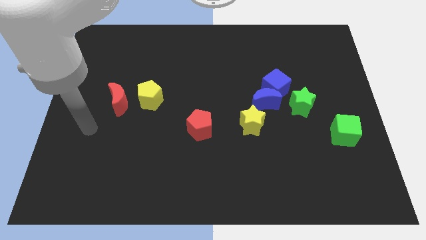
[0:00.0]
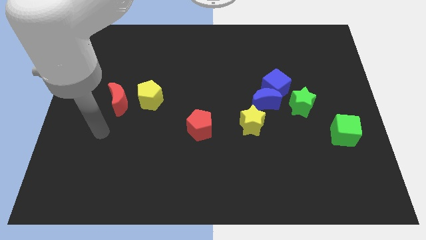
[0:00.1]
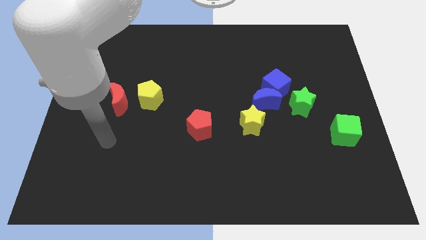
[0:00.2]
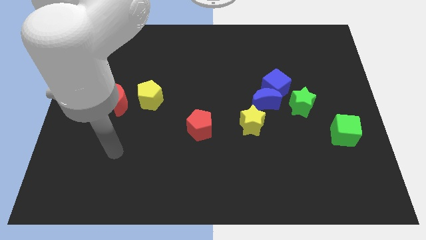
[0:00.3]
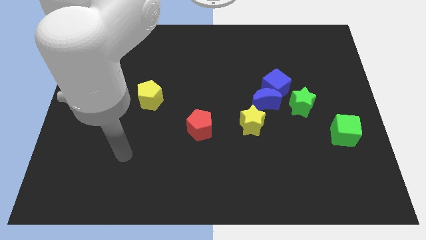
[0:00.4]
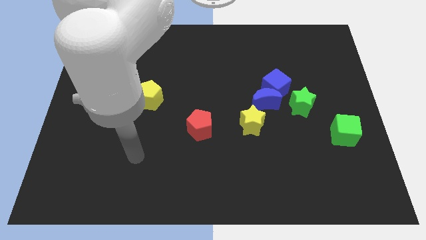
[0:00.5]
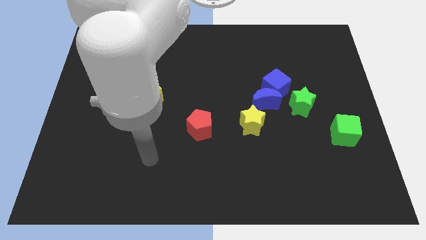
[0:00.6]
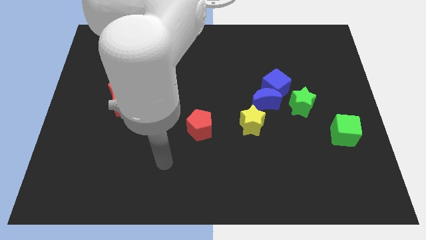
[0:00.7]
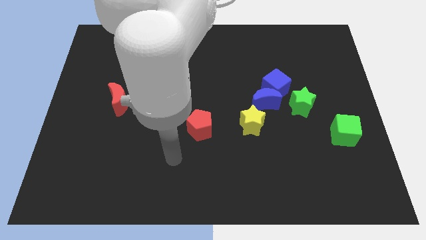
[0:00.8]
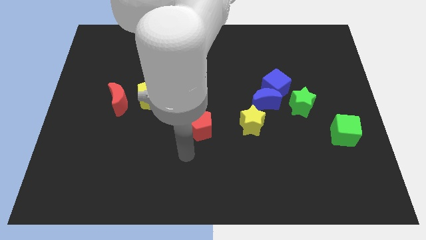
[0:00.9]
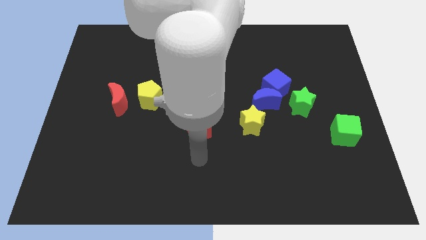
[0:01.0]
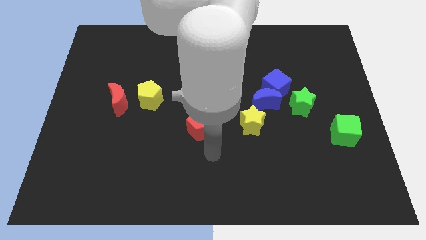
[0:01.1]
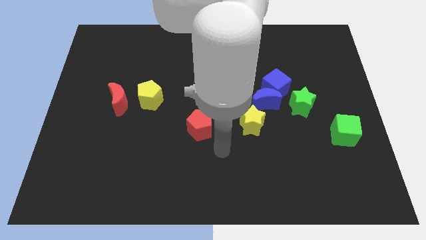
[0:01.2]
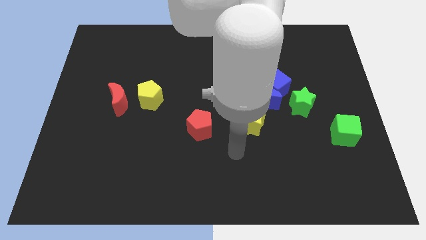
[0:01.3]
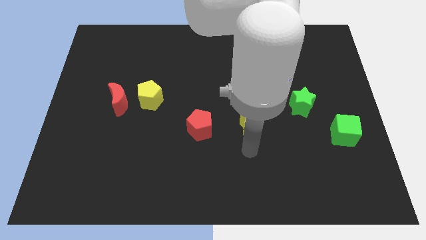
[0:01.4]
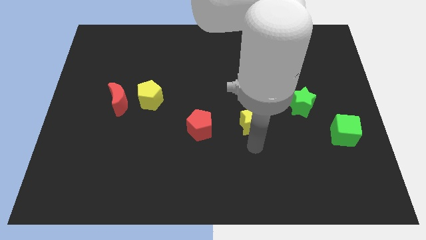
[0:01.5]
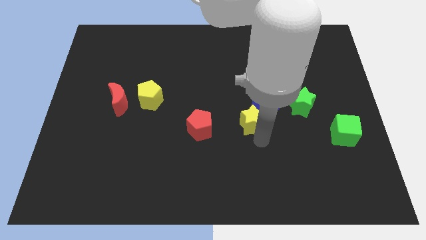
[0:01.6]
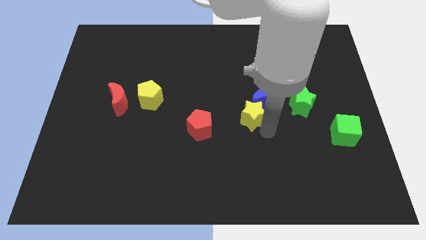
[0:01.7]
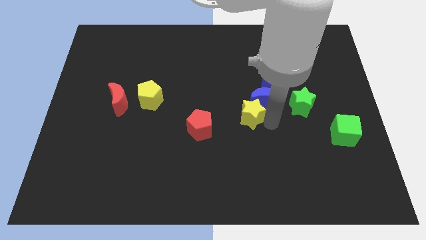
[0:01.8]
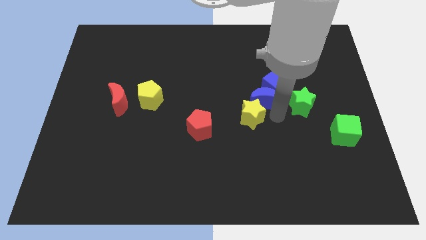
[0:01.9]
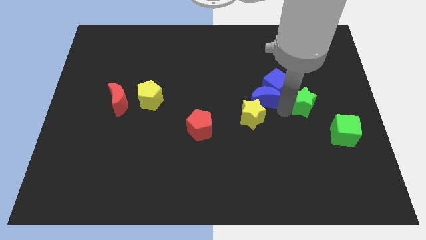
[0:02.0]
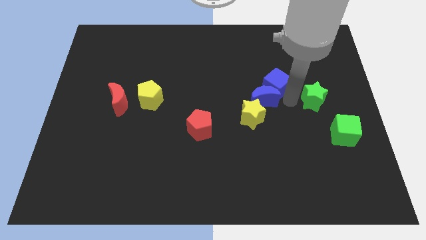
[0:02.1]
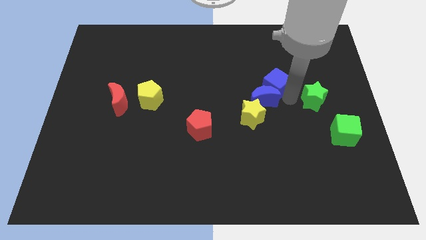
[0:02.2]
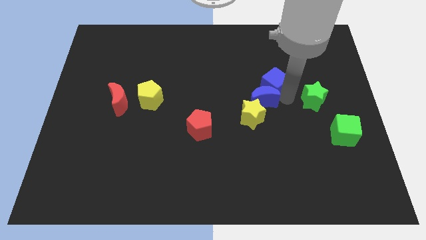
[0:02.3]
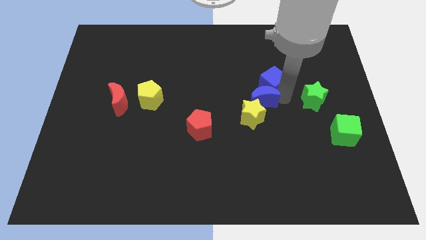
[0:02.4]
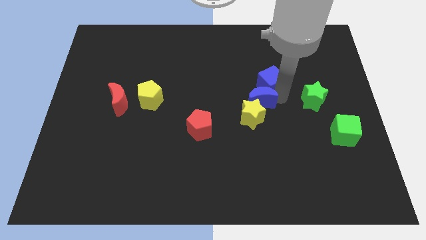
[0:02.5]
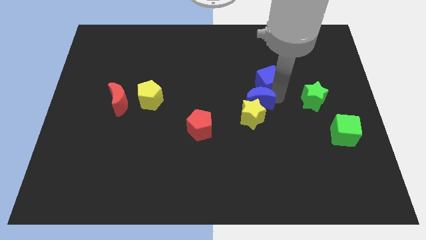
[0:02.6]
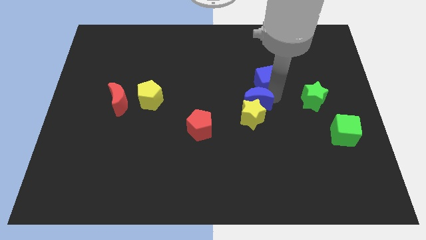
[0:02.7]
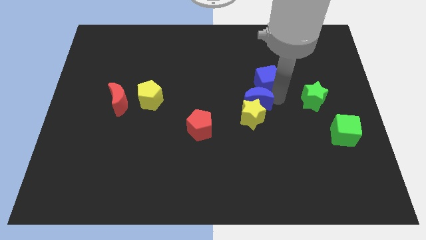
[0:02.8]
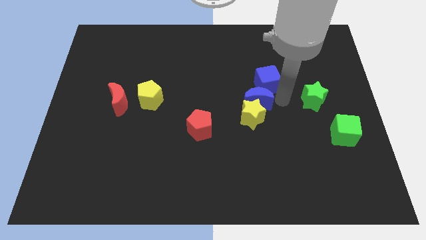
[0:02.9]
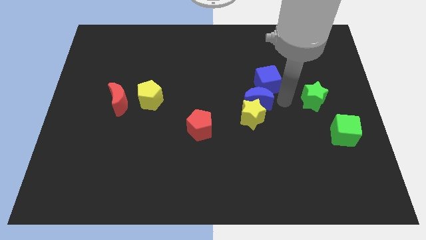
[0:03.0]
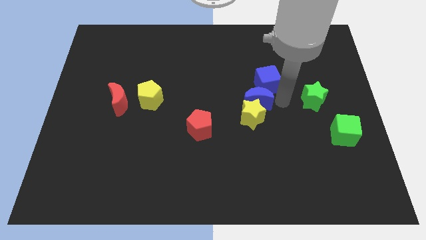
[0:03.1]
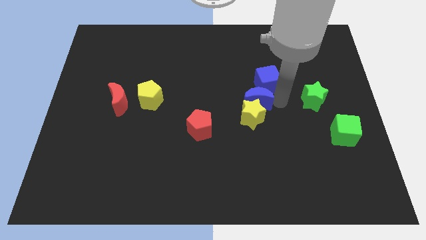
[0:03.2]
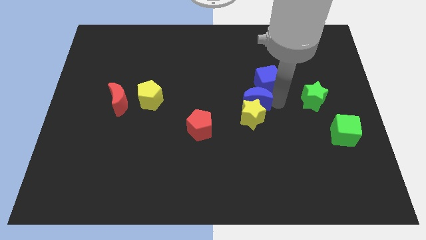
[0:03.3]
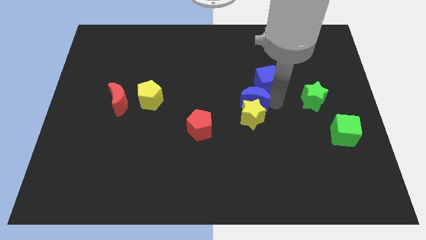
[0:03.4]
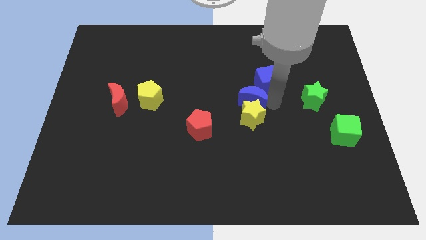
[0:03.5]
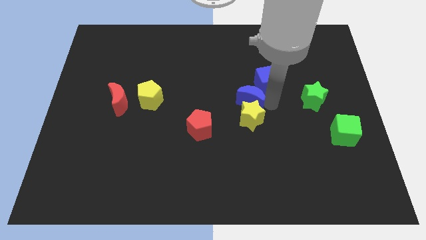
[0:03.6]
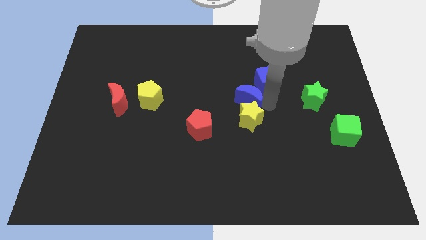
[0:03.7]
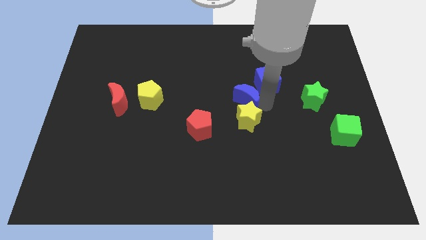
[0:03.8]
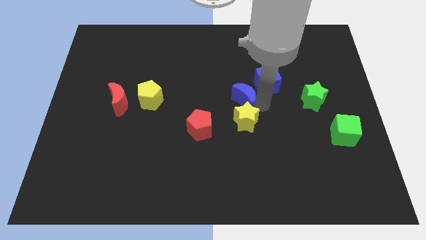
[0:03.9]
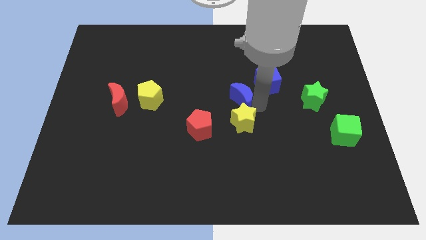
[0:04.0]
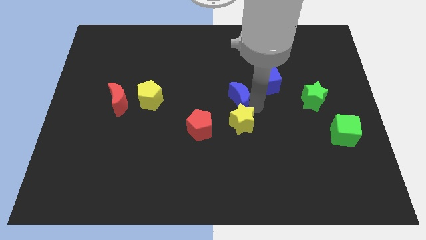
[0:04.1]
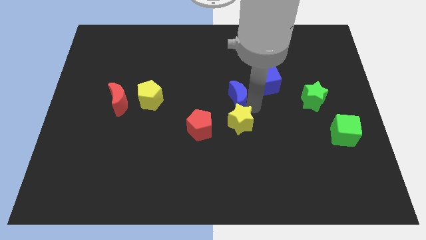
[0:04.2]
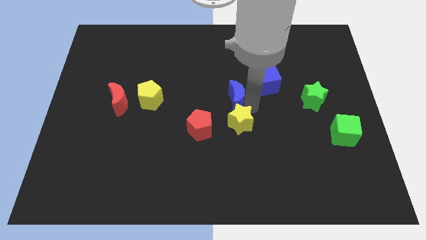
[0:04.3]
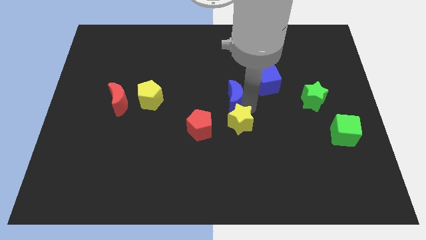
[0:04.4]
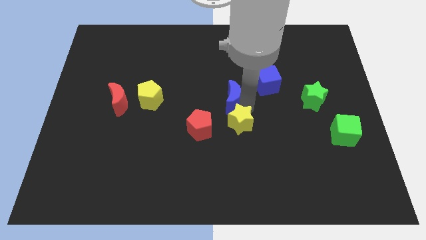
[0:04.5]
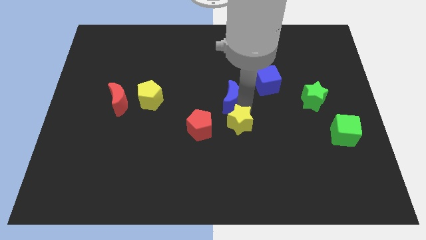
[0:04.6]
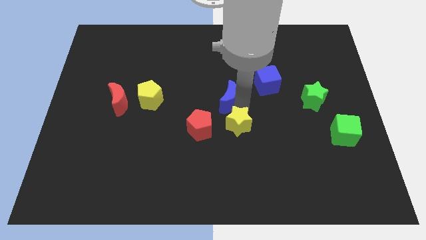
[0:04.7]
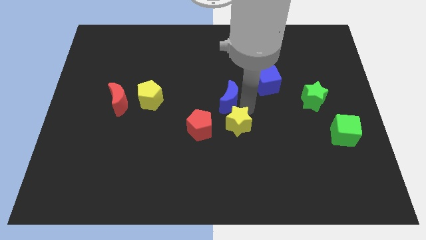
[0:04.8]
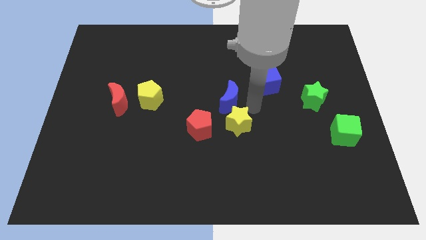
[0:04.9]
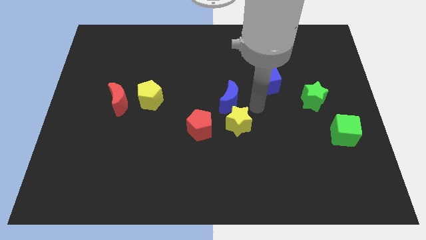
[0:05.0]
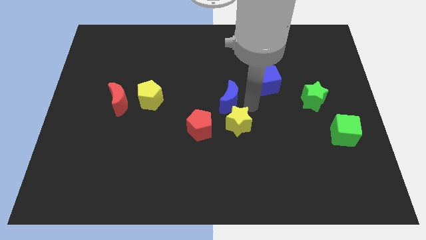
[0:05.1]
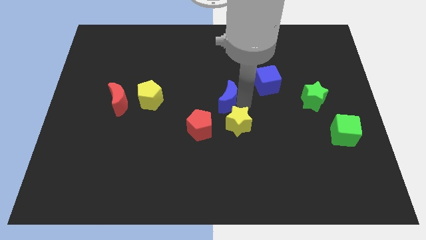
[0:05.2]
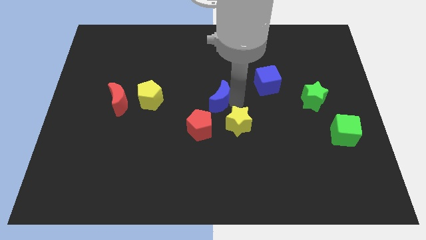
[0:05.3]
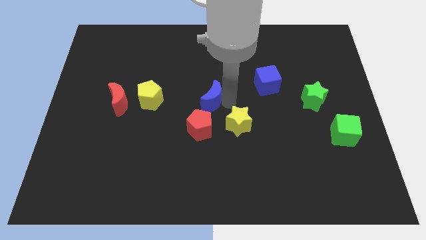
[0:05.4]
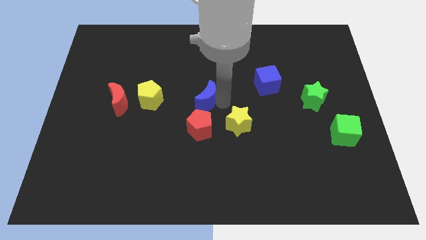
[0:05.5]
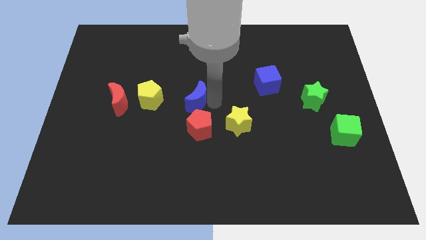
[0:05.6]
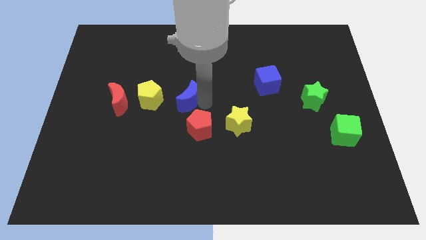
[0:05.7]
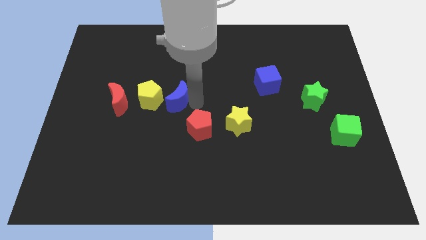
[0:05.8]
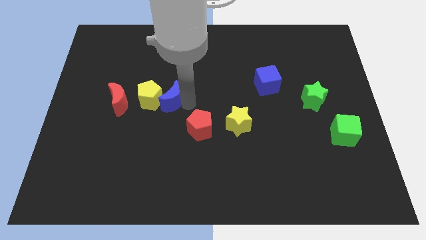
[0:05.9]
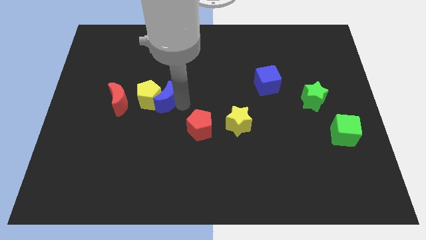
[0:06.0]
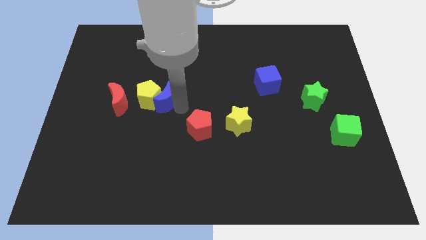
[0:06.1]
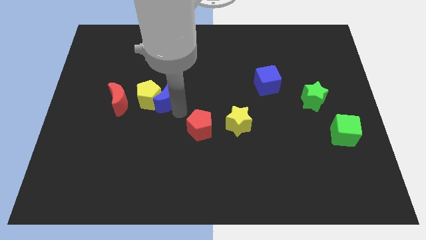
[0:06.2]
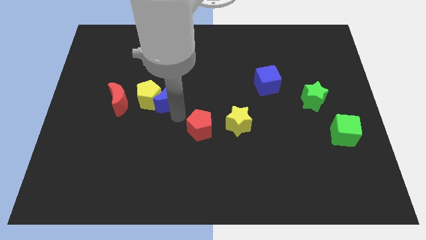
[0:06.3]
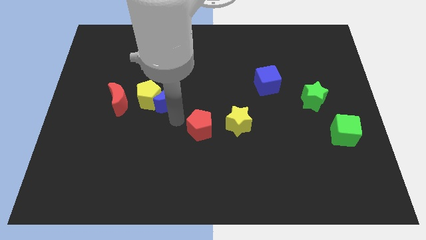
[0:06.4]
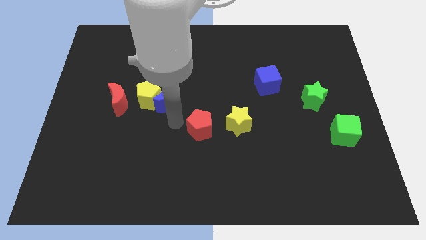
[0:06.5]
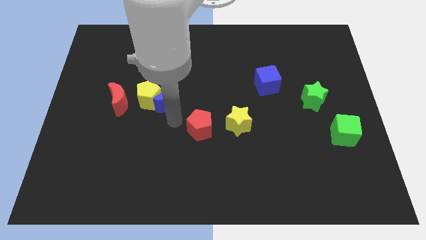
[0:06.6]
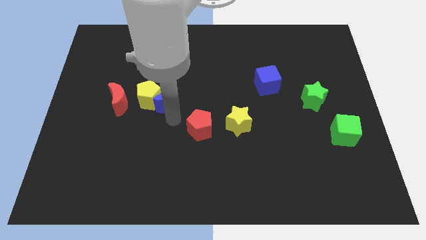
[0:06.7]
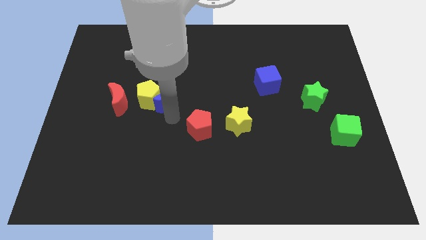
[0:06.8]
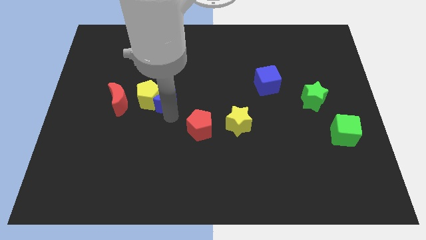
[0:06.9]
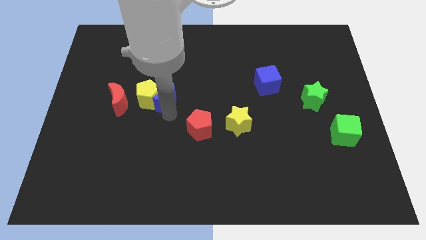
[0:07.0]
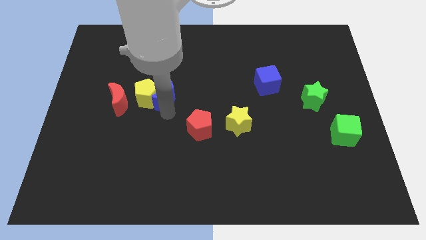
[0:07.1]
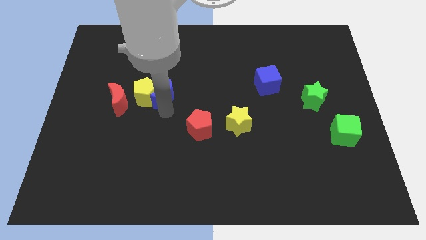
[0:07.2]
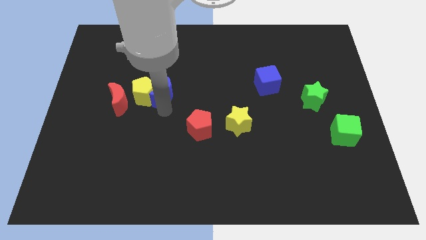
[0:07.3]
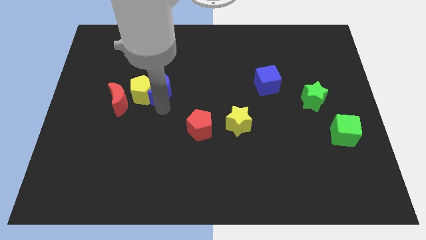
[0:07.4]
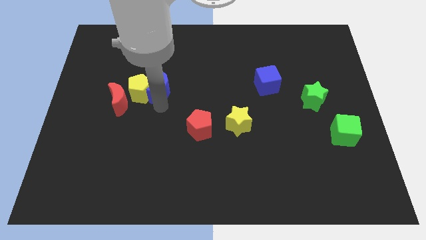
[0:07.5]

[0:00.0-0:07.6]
slide the blue moon to the top right side of the red moon
